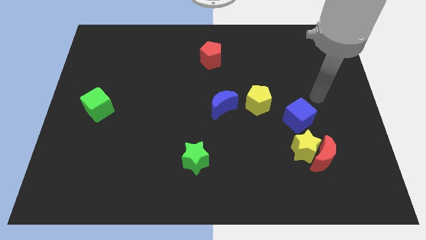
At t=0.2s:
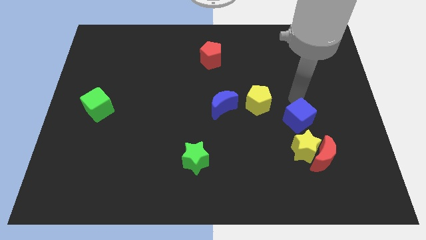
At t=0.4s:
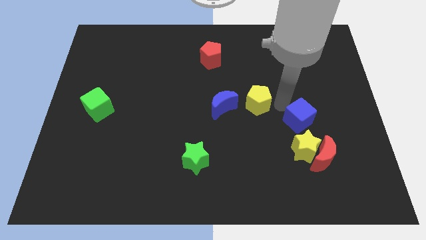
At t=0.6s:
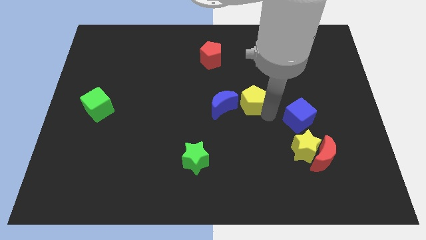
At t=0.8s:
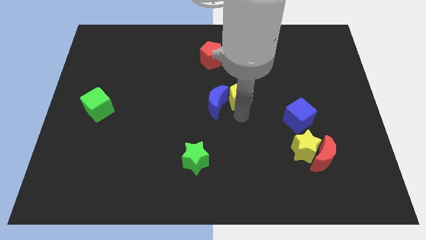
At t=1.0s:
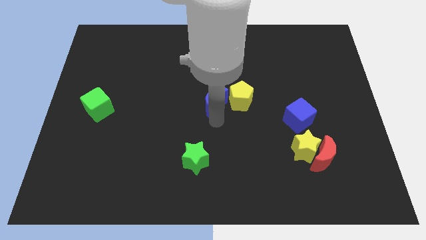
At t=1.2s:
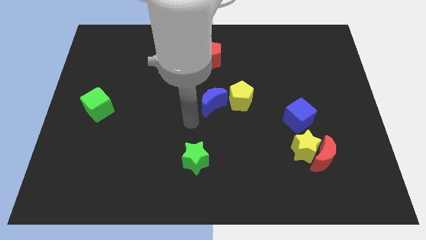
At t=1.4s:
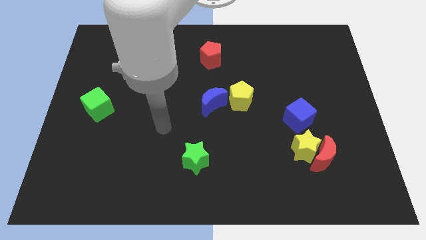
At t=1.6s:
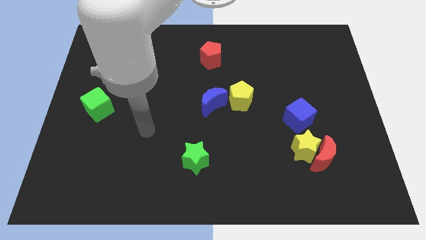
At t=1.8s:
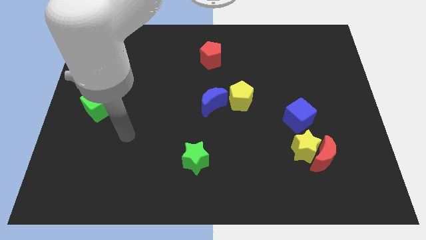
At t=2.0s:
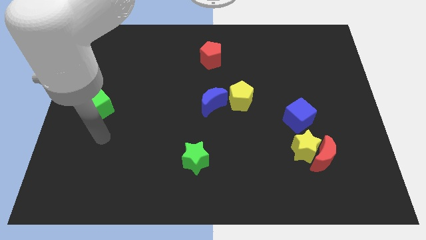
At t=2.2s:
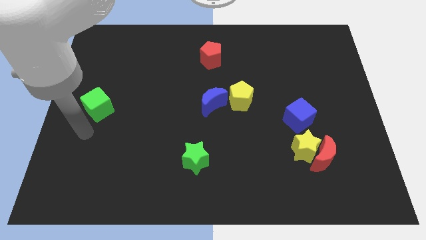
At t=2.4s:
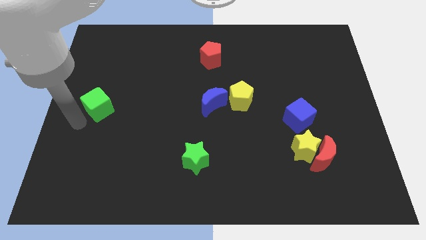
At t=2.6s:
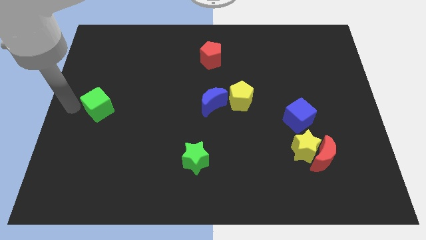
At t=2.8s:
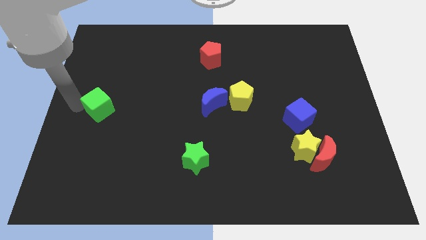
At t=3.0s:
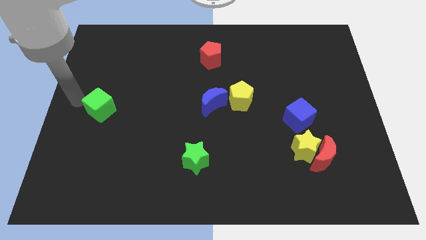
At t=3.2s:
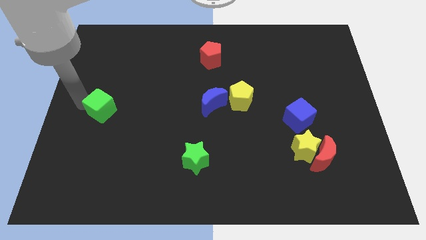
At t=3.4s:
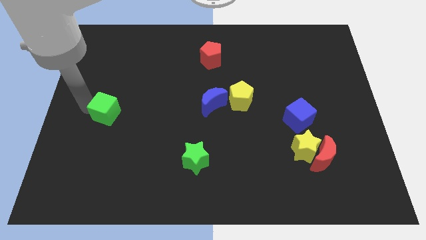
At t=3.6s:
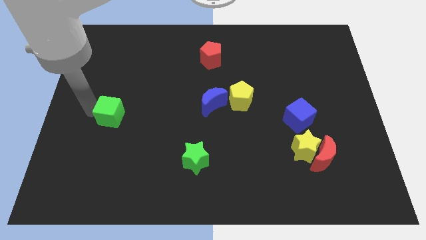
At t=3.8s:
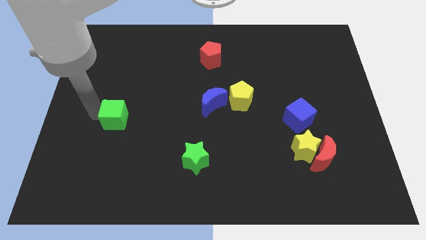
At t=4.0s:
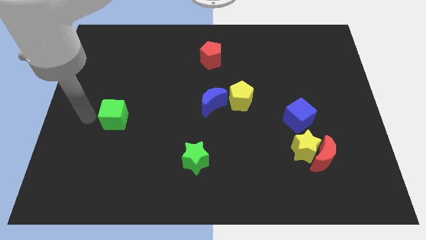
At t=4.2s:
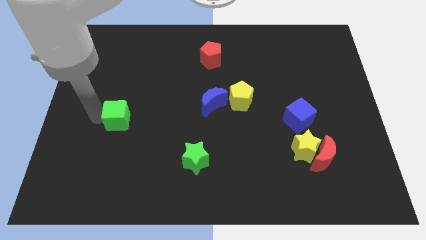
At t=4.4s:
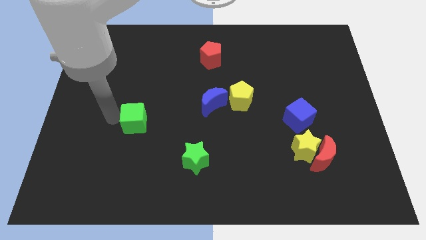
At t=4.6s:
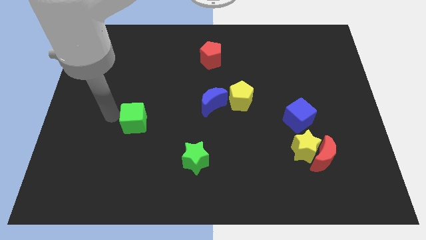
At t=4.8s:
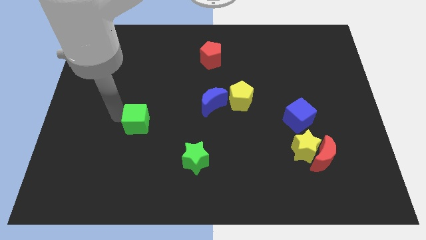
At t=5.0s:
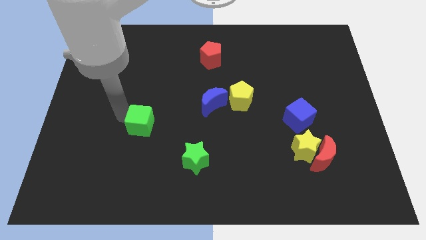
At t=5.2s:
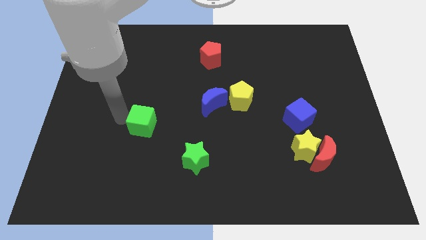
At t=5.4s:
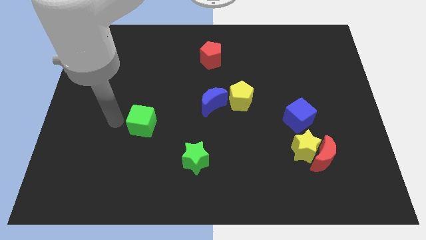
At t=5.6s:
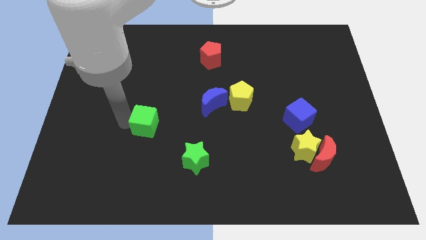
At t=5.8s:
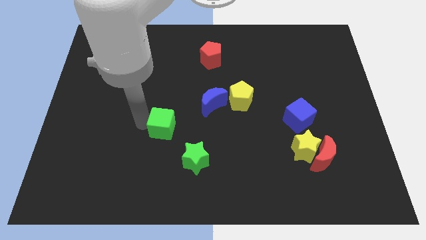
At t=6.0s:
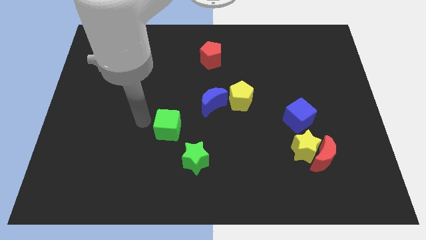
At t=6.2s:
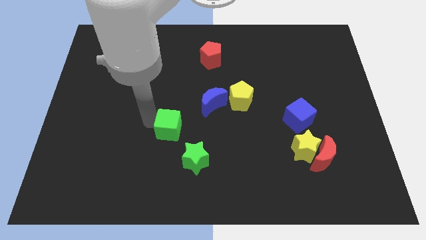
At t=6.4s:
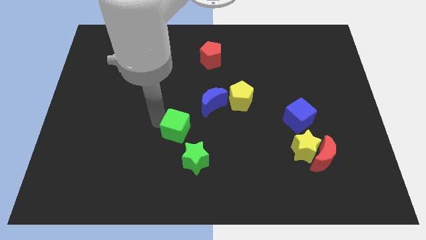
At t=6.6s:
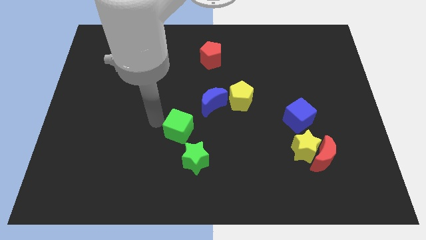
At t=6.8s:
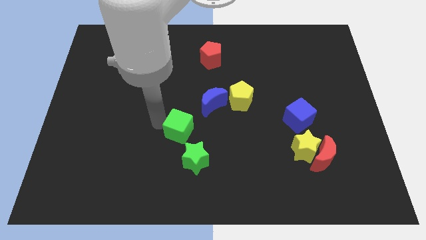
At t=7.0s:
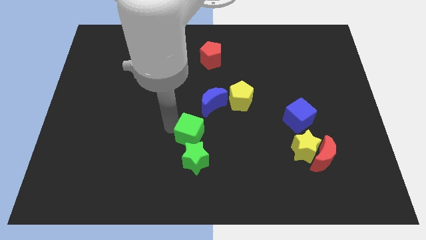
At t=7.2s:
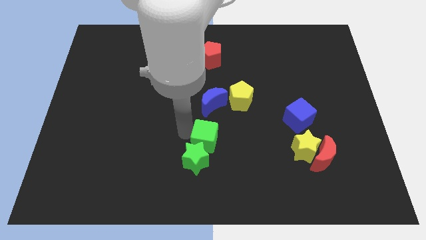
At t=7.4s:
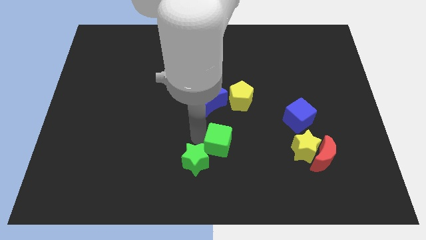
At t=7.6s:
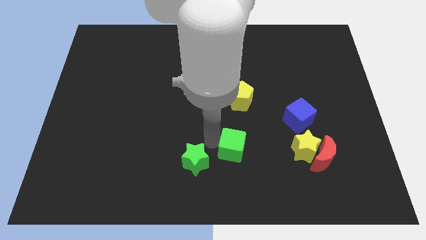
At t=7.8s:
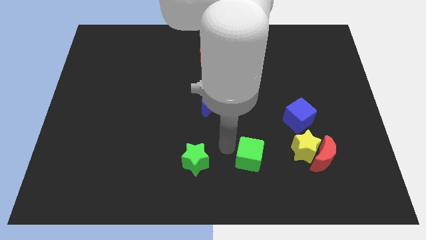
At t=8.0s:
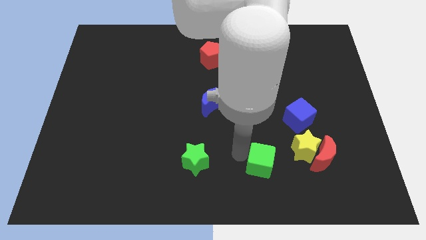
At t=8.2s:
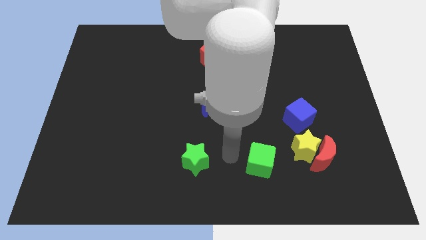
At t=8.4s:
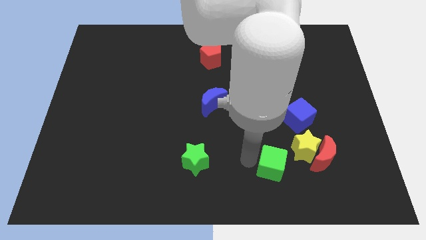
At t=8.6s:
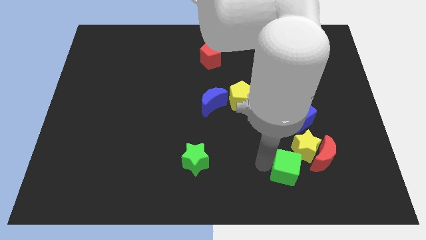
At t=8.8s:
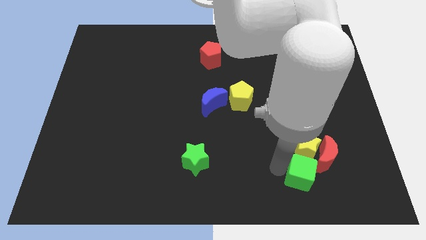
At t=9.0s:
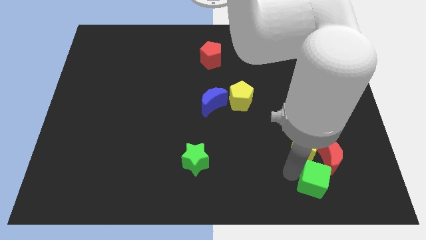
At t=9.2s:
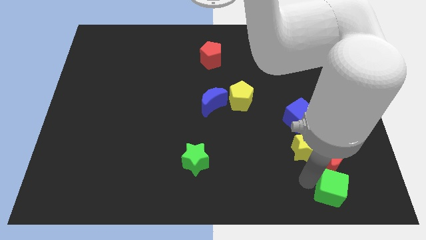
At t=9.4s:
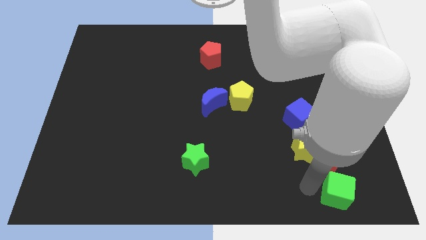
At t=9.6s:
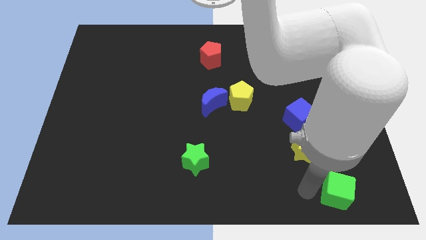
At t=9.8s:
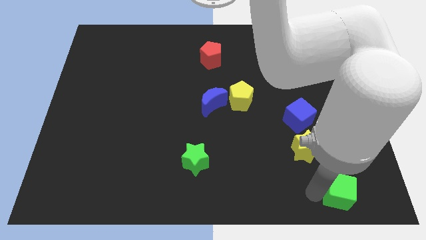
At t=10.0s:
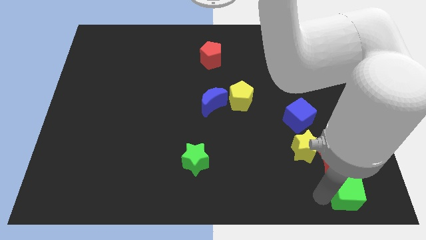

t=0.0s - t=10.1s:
move the green cube to the bottom right corner
